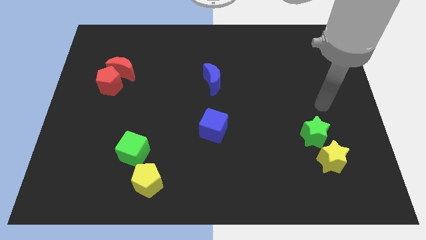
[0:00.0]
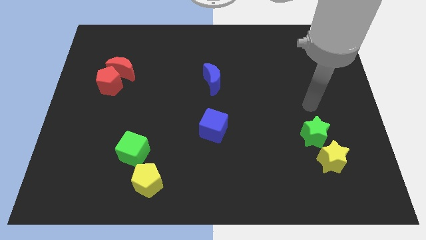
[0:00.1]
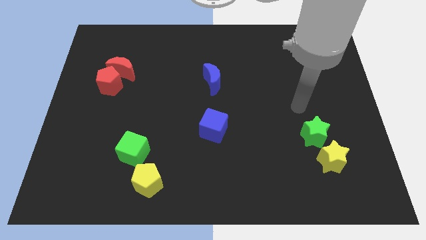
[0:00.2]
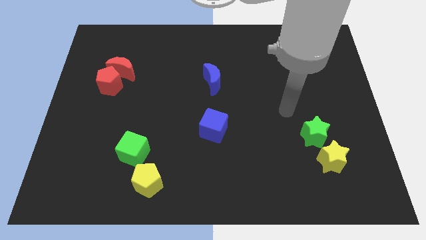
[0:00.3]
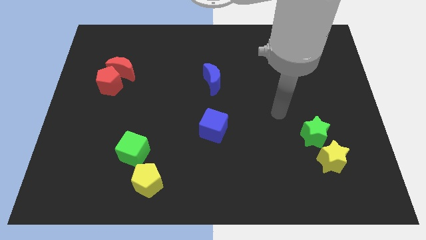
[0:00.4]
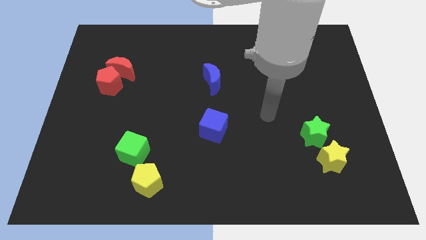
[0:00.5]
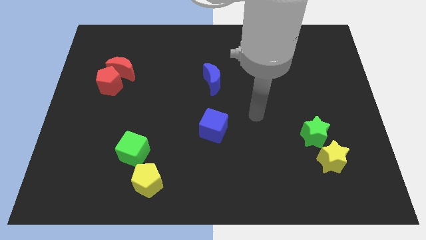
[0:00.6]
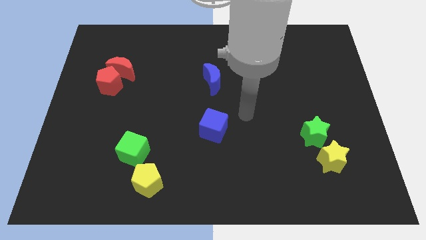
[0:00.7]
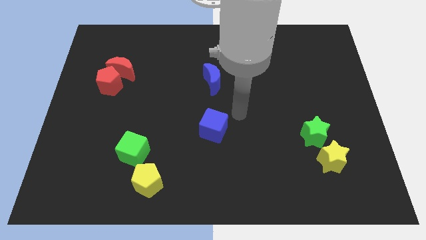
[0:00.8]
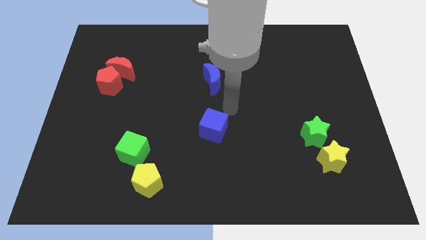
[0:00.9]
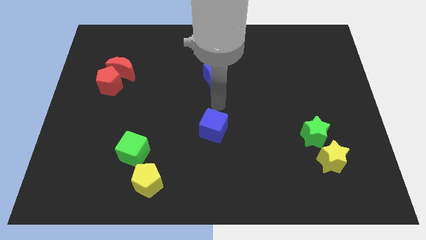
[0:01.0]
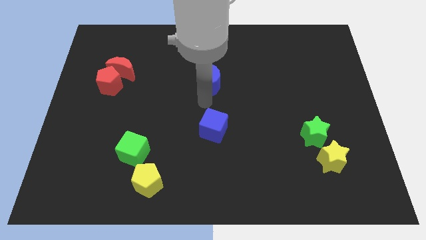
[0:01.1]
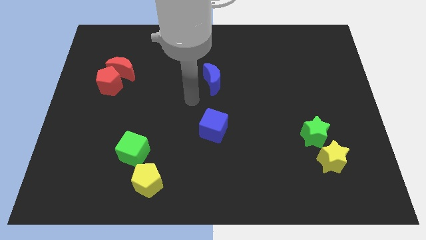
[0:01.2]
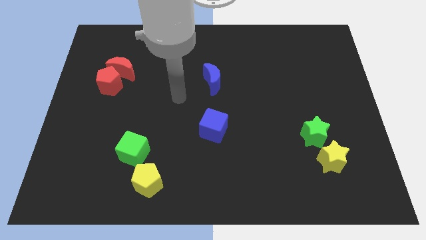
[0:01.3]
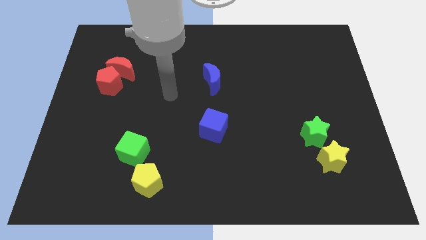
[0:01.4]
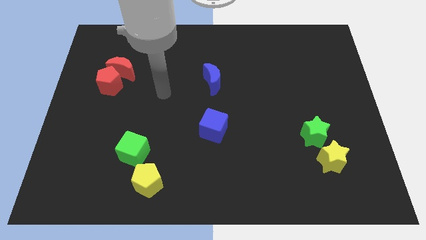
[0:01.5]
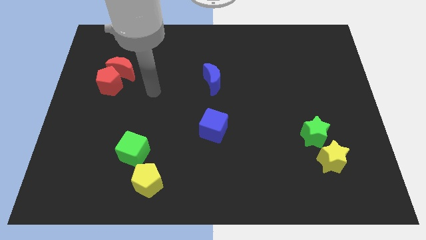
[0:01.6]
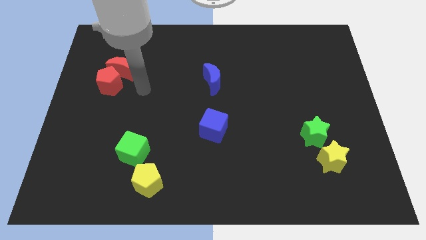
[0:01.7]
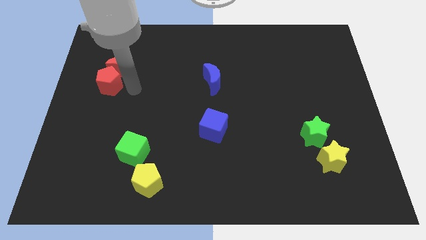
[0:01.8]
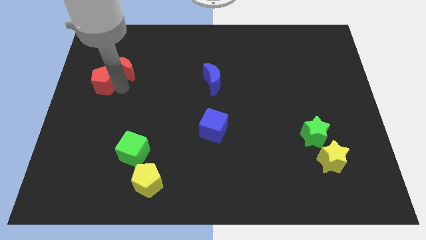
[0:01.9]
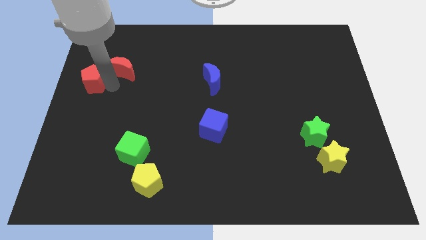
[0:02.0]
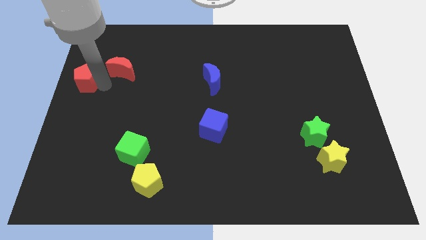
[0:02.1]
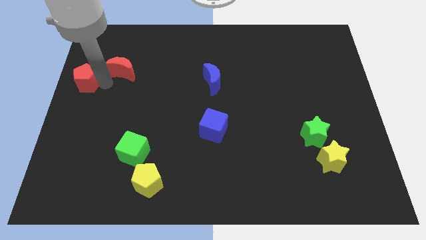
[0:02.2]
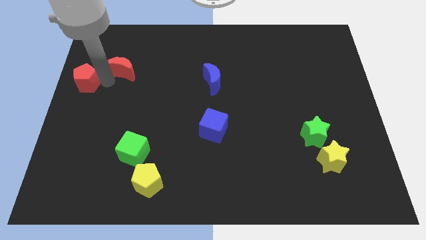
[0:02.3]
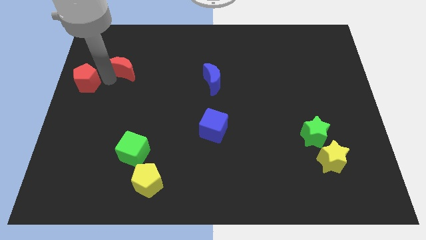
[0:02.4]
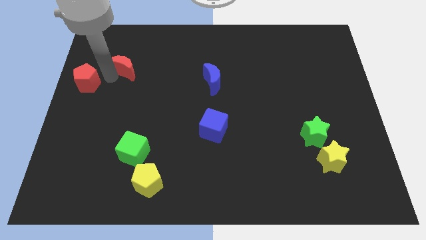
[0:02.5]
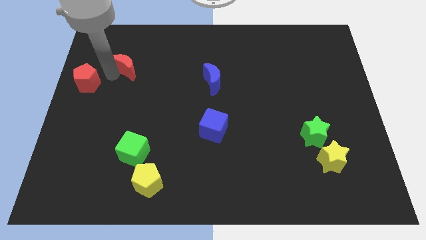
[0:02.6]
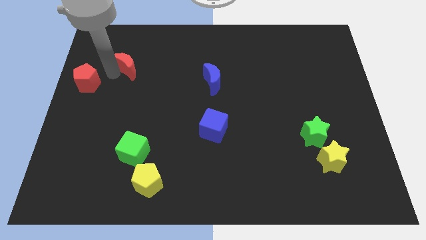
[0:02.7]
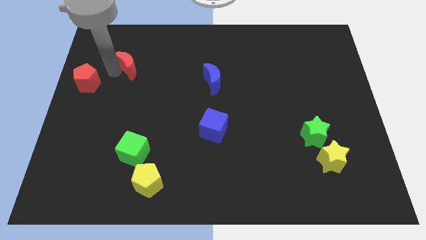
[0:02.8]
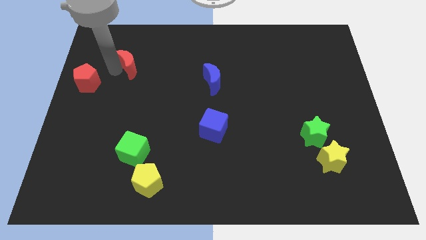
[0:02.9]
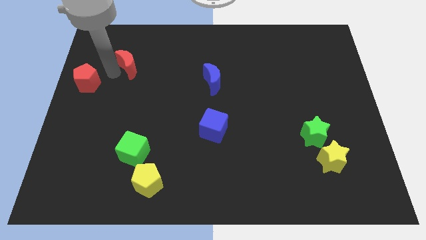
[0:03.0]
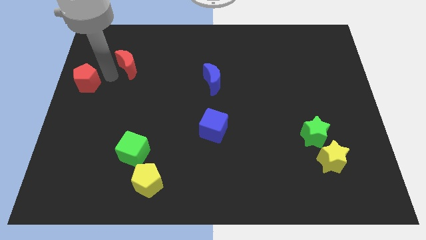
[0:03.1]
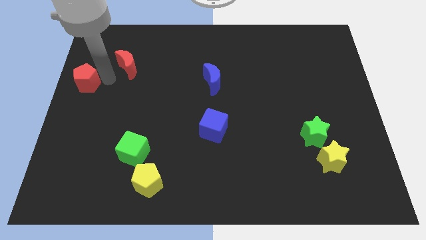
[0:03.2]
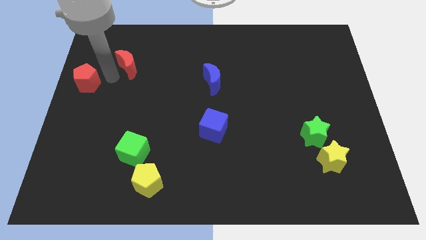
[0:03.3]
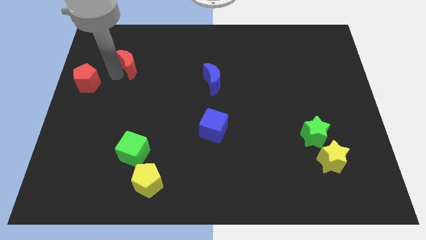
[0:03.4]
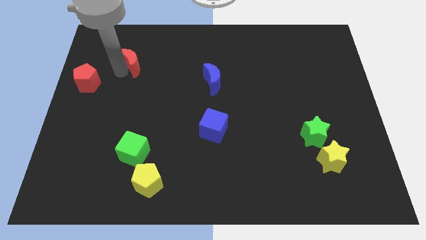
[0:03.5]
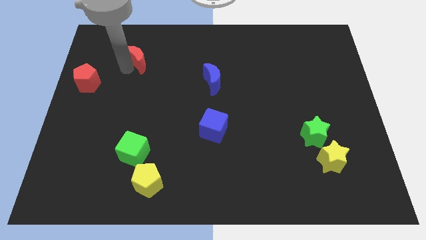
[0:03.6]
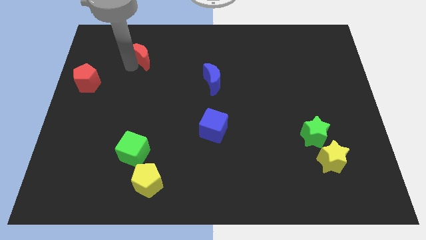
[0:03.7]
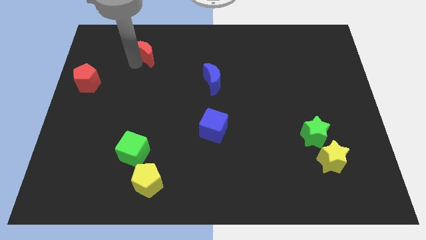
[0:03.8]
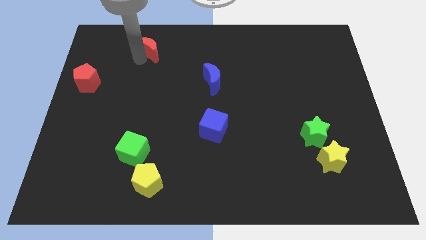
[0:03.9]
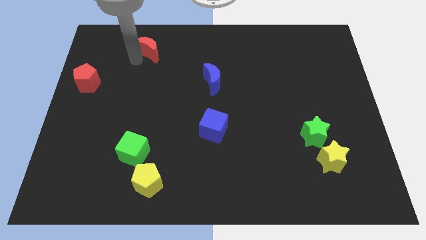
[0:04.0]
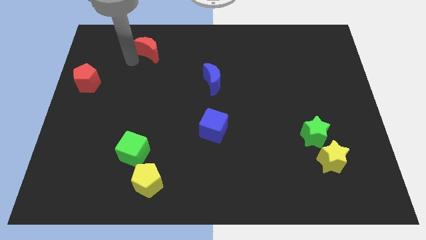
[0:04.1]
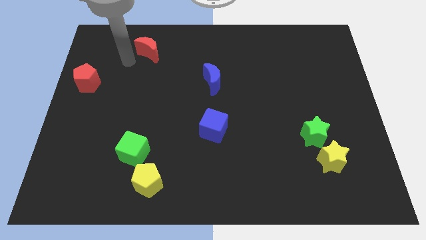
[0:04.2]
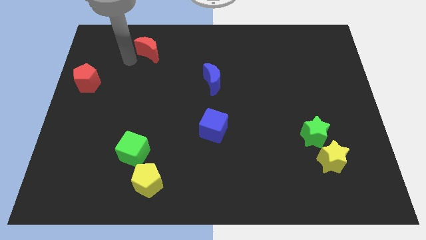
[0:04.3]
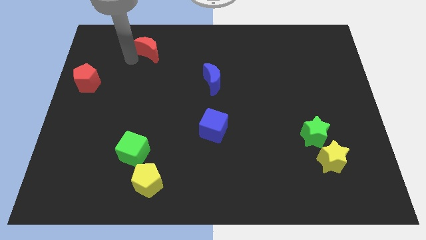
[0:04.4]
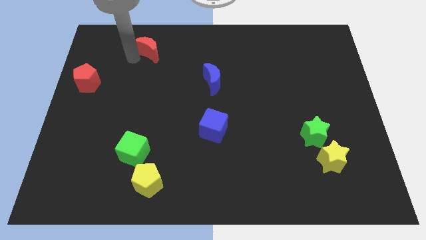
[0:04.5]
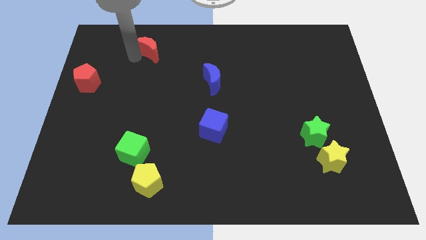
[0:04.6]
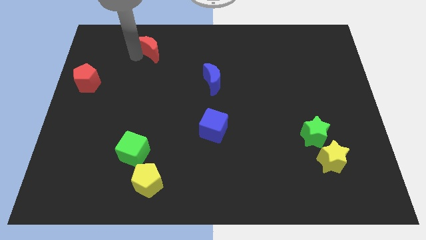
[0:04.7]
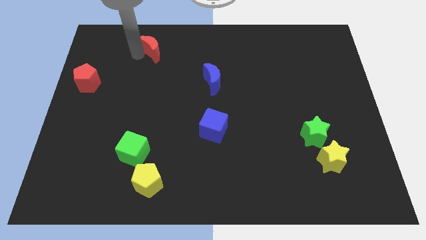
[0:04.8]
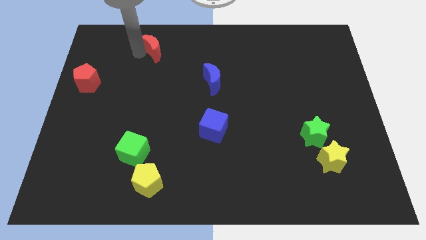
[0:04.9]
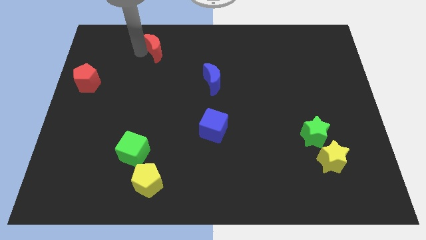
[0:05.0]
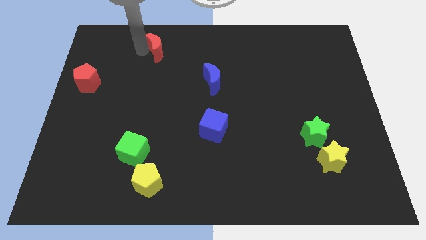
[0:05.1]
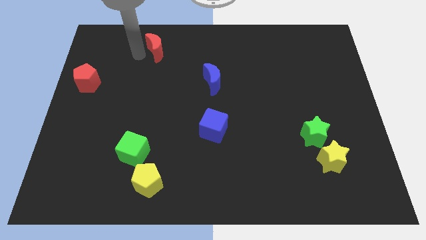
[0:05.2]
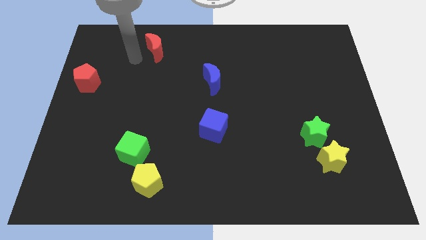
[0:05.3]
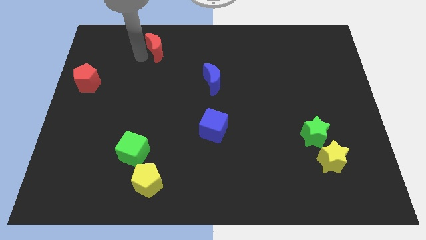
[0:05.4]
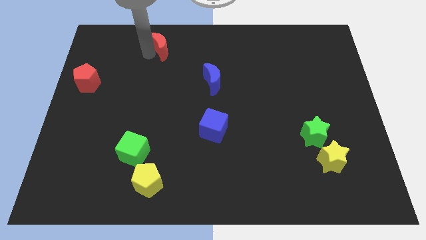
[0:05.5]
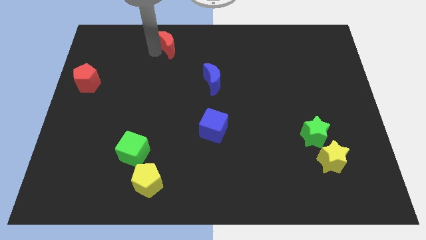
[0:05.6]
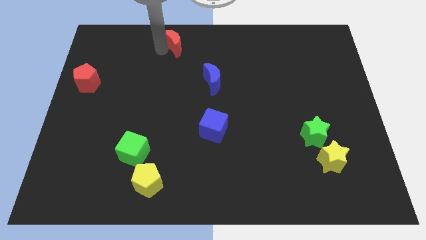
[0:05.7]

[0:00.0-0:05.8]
push the red moon to the towards your base

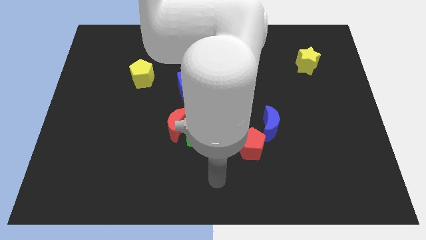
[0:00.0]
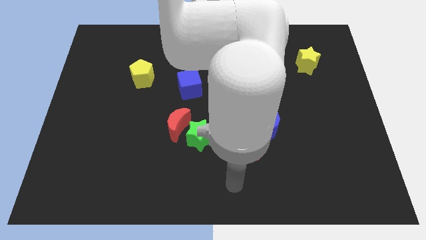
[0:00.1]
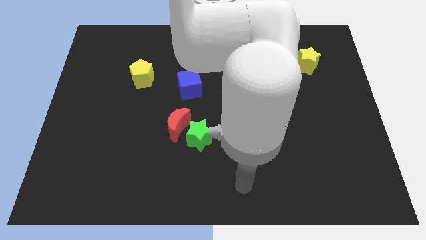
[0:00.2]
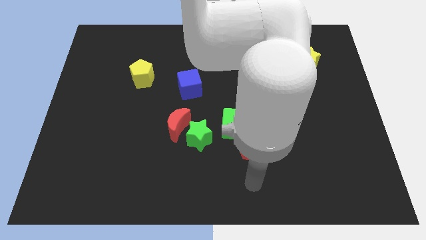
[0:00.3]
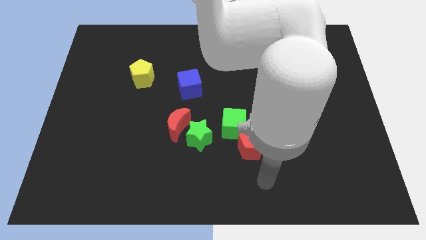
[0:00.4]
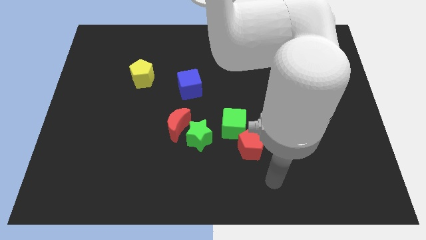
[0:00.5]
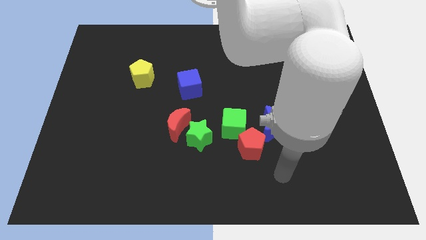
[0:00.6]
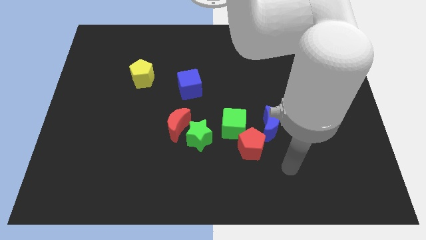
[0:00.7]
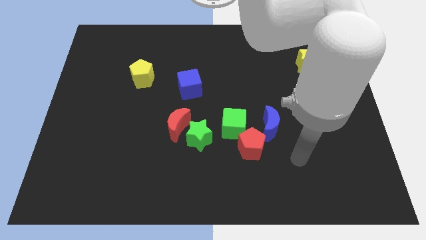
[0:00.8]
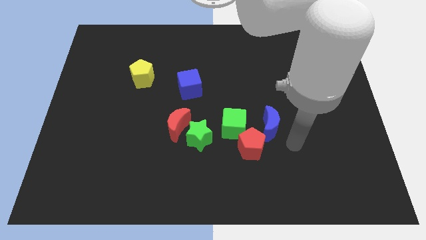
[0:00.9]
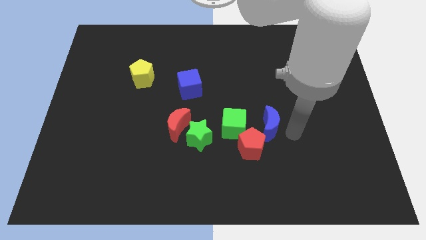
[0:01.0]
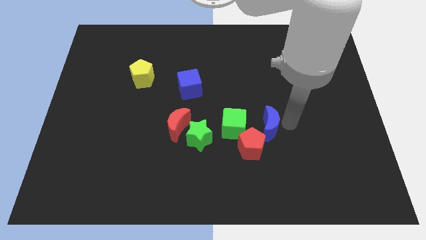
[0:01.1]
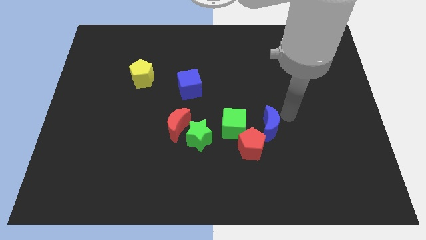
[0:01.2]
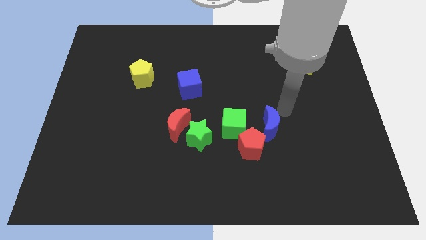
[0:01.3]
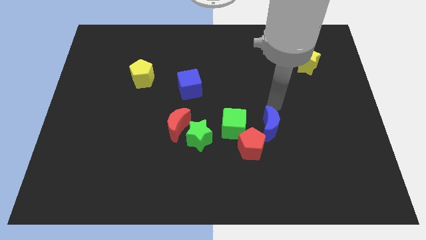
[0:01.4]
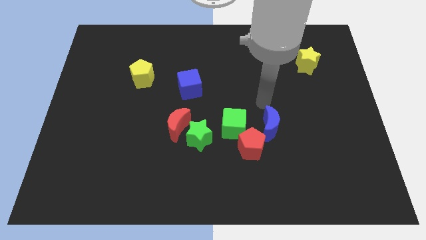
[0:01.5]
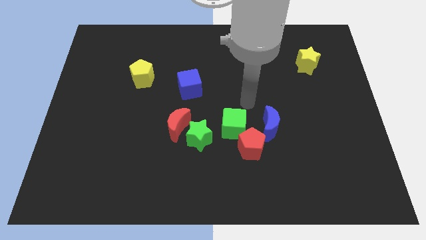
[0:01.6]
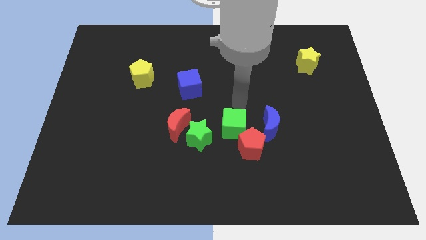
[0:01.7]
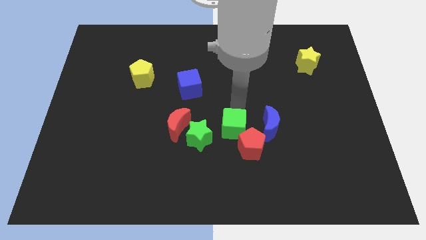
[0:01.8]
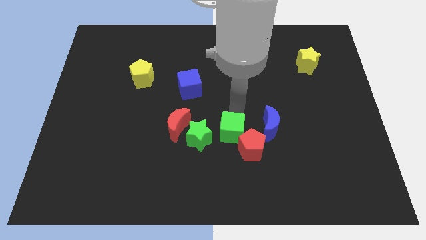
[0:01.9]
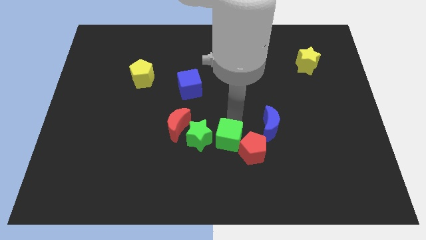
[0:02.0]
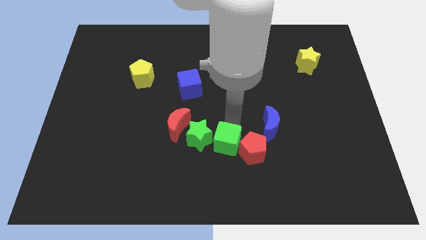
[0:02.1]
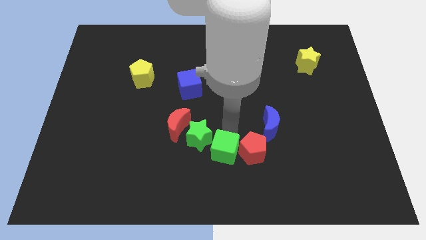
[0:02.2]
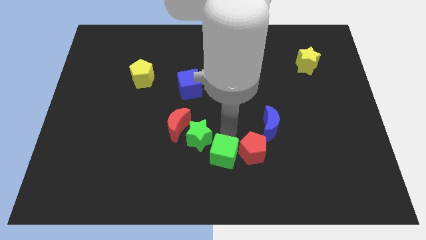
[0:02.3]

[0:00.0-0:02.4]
slide the green cube to the bottom
